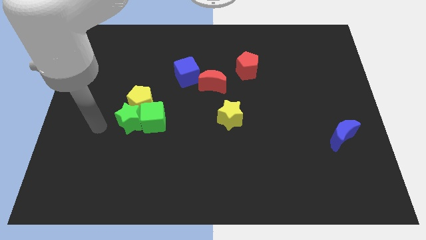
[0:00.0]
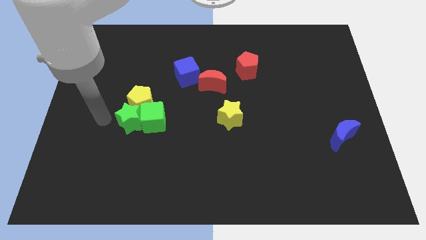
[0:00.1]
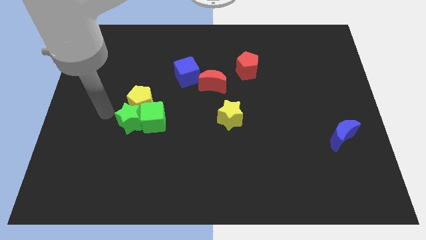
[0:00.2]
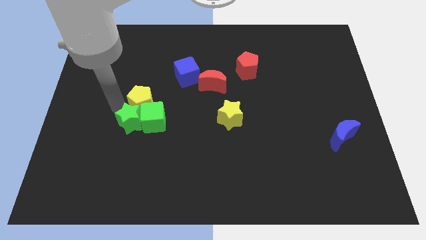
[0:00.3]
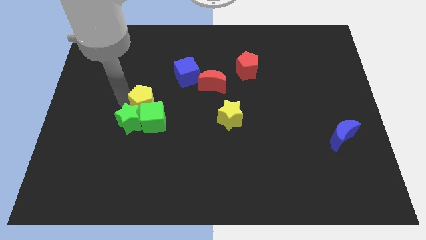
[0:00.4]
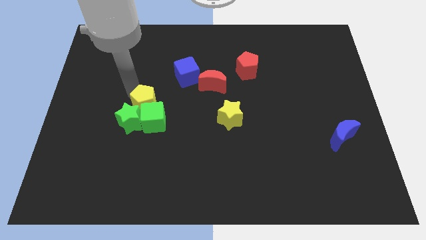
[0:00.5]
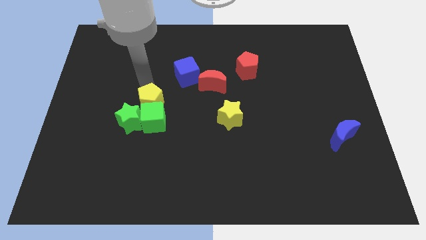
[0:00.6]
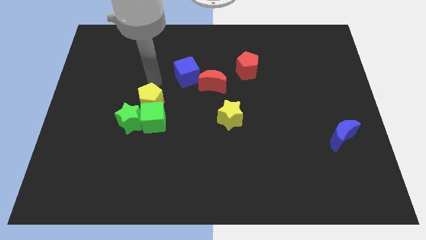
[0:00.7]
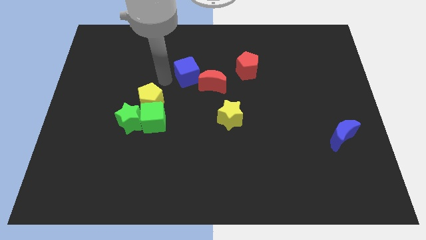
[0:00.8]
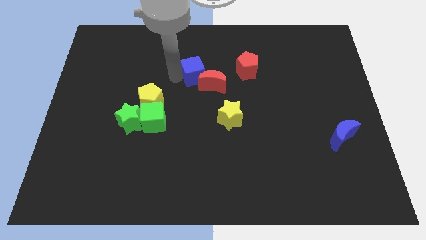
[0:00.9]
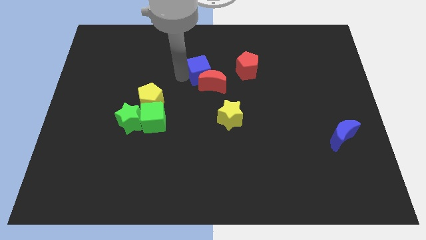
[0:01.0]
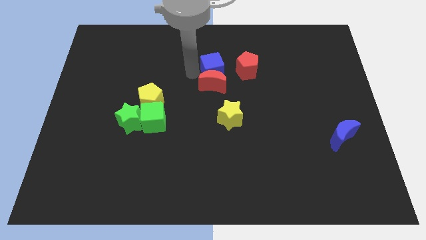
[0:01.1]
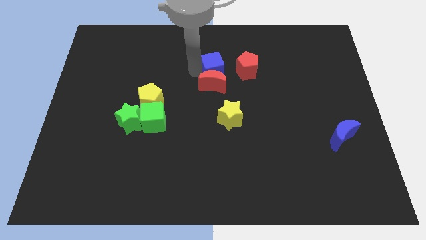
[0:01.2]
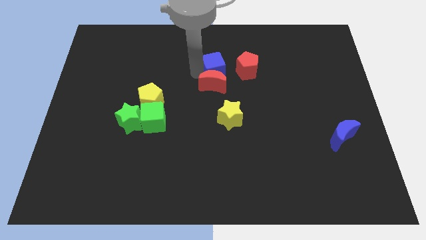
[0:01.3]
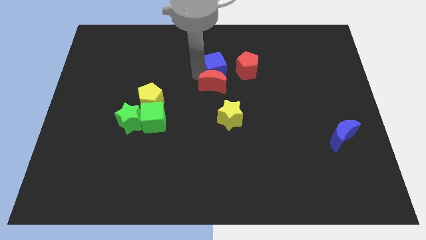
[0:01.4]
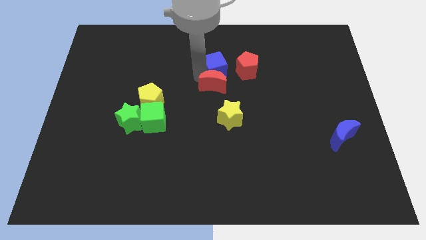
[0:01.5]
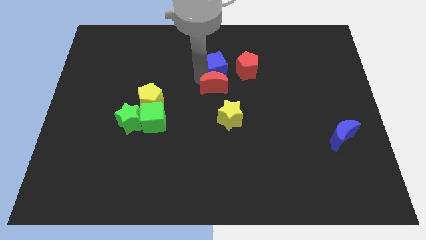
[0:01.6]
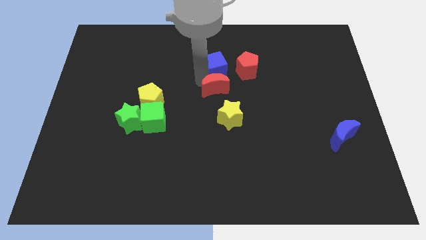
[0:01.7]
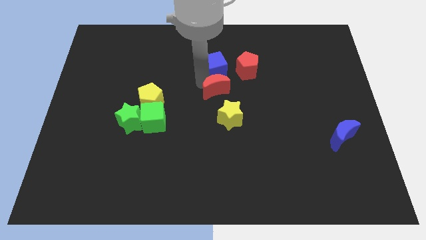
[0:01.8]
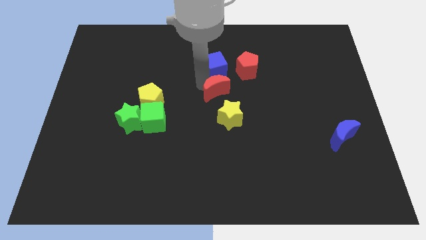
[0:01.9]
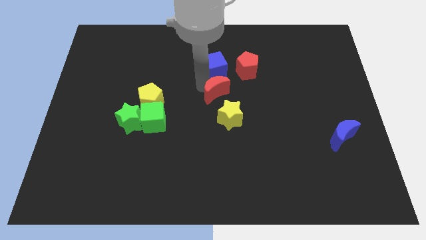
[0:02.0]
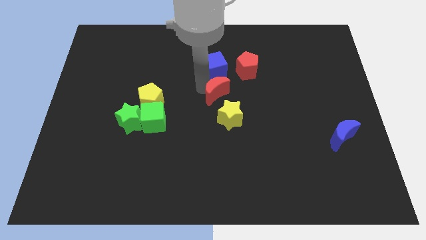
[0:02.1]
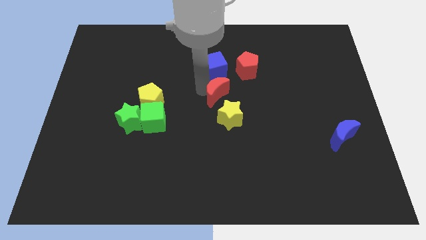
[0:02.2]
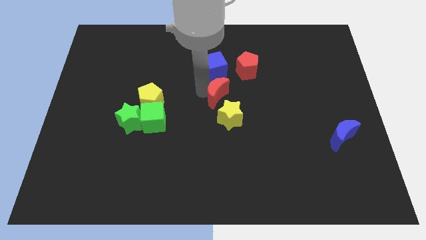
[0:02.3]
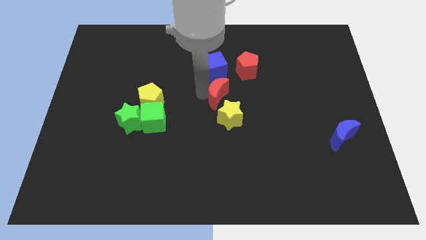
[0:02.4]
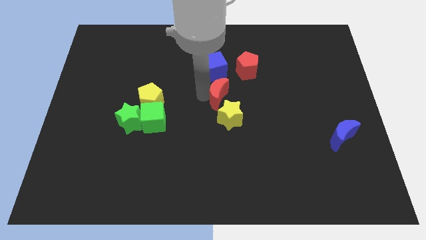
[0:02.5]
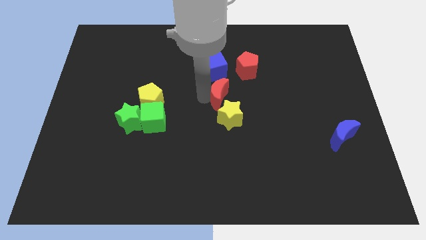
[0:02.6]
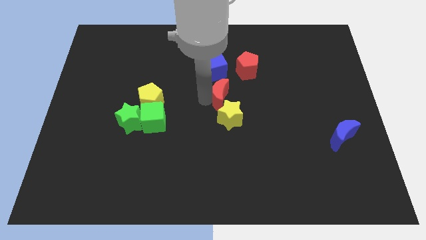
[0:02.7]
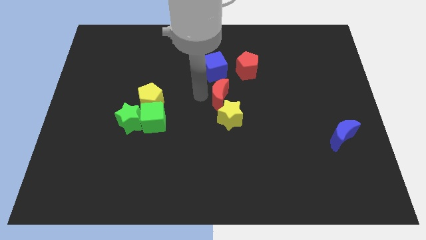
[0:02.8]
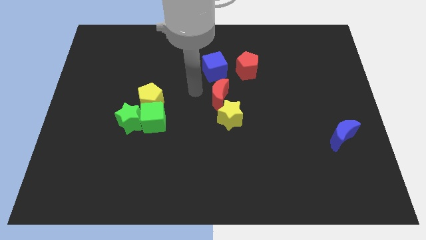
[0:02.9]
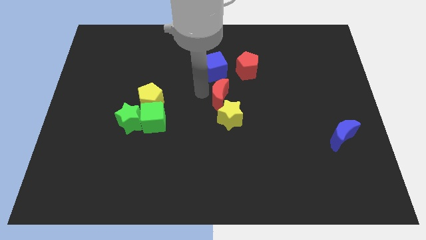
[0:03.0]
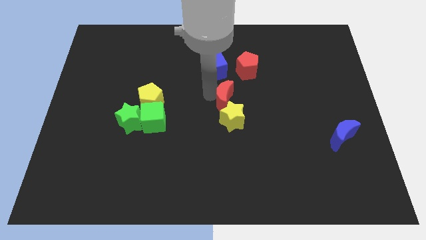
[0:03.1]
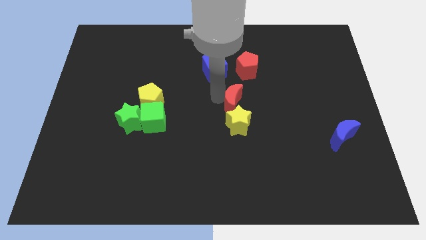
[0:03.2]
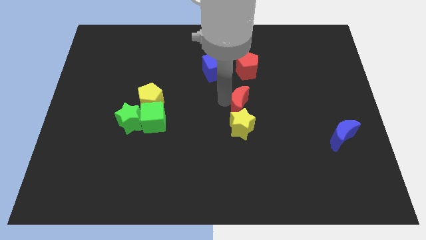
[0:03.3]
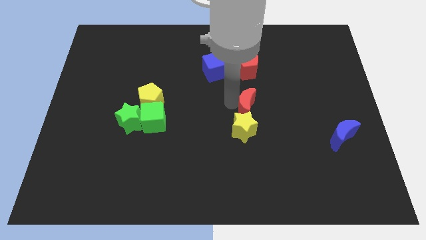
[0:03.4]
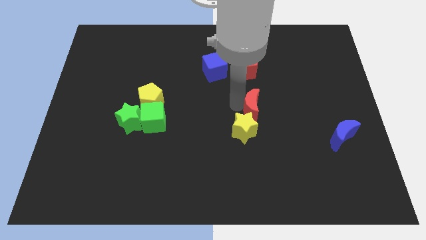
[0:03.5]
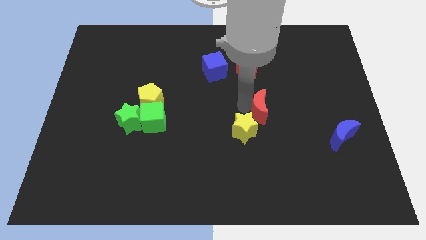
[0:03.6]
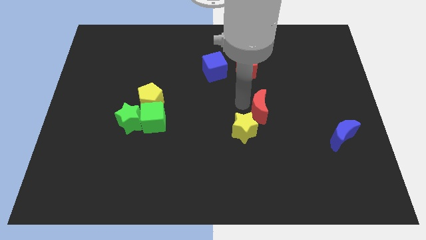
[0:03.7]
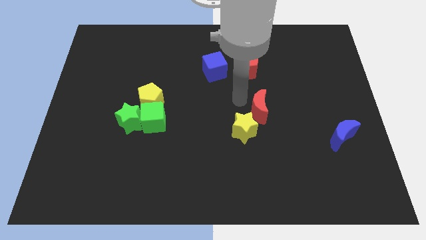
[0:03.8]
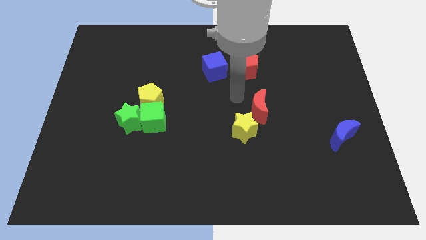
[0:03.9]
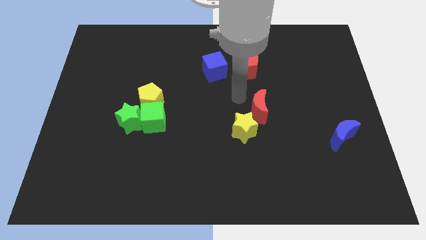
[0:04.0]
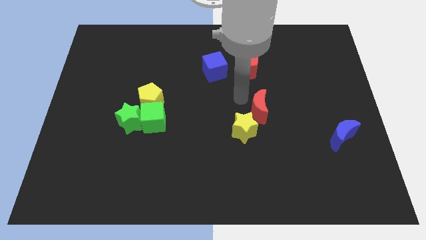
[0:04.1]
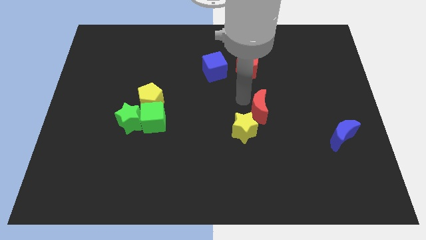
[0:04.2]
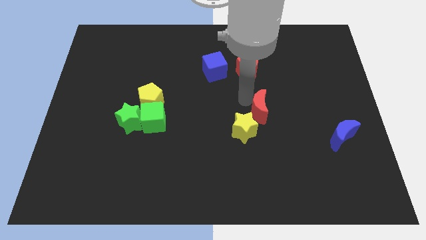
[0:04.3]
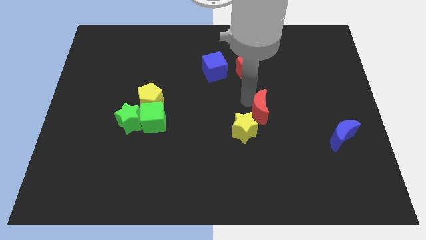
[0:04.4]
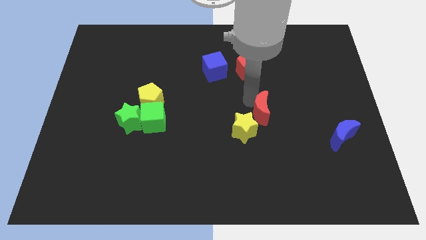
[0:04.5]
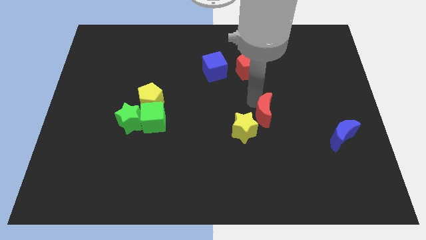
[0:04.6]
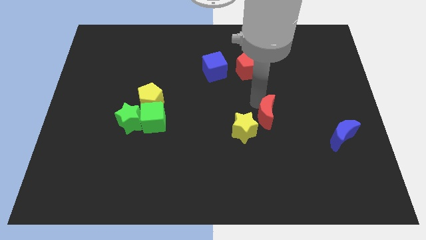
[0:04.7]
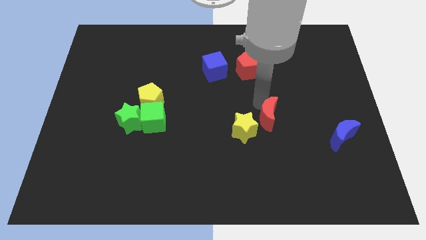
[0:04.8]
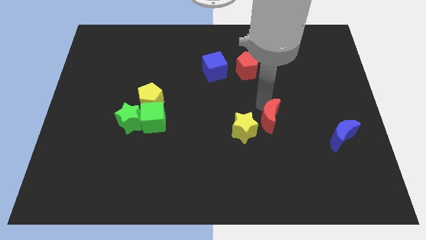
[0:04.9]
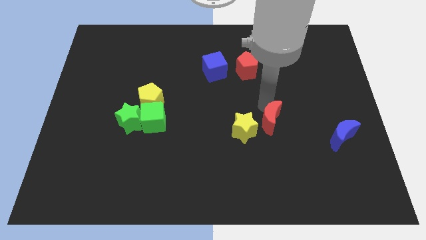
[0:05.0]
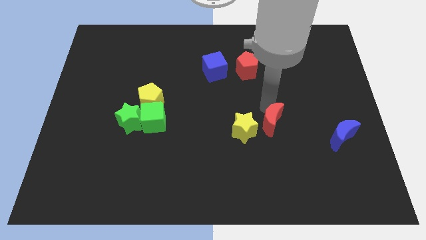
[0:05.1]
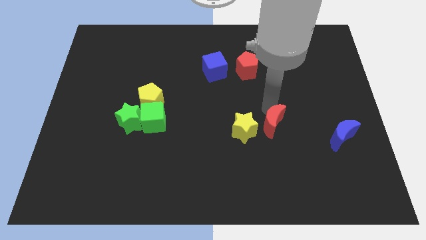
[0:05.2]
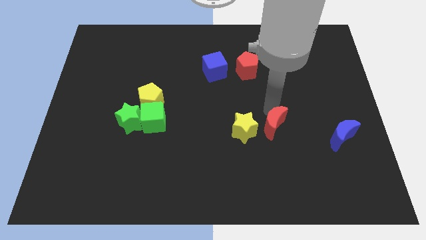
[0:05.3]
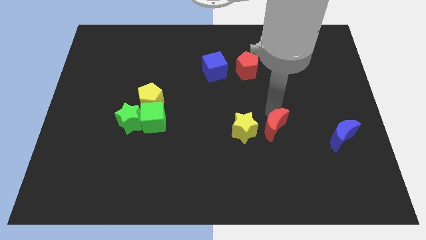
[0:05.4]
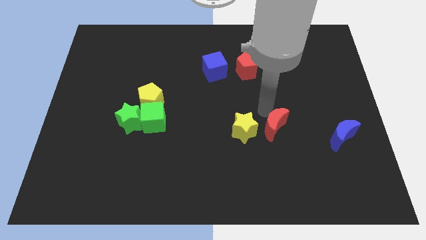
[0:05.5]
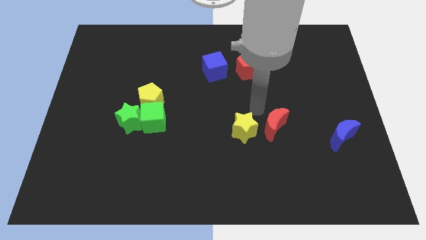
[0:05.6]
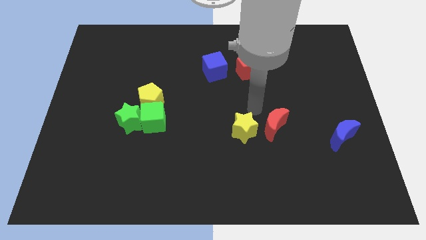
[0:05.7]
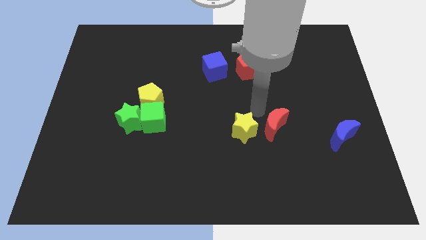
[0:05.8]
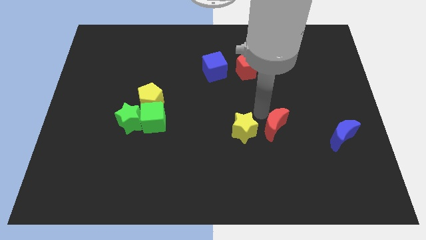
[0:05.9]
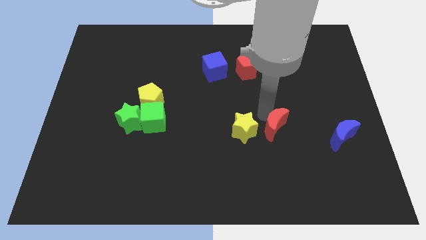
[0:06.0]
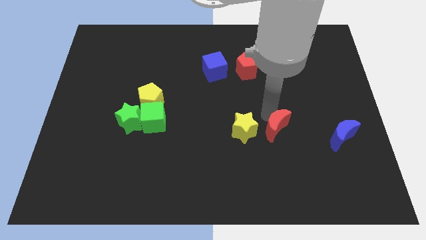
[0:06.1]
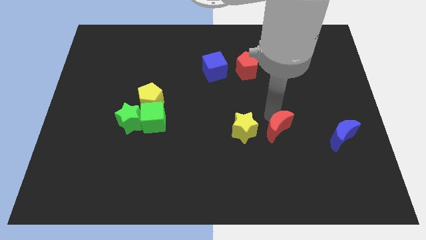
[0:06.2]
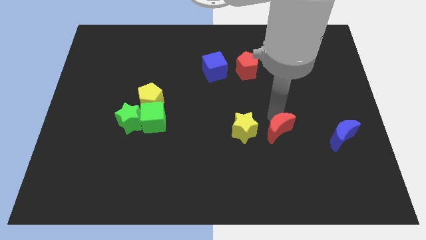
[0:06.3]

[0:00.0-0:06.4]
slide the red moon downwards and then to the right

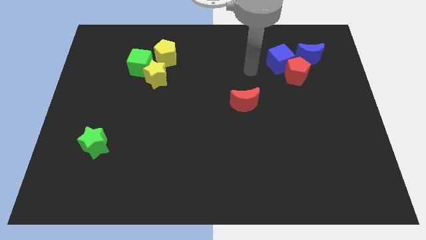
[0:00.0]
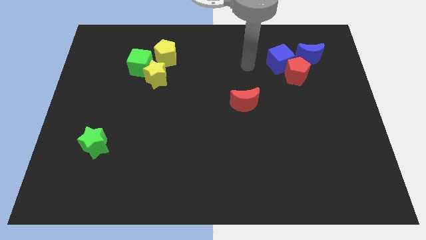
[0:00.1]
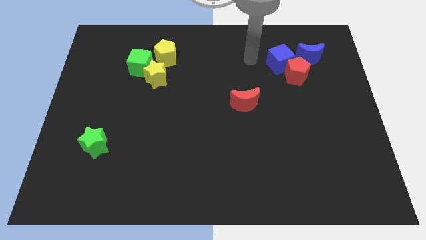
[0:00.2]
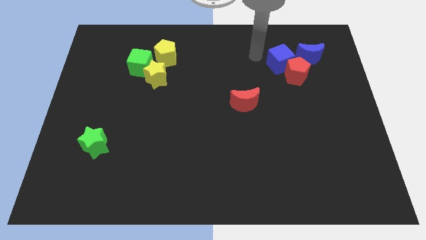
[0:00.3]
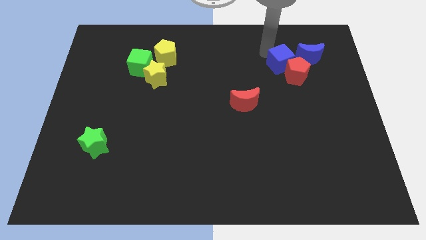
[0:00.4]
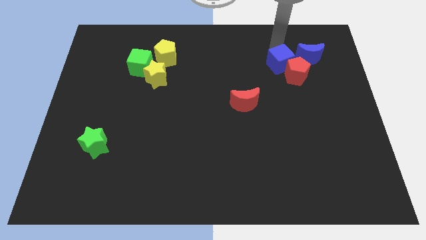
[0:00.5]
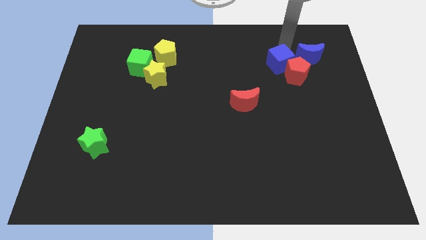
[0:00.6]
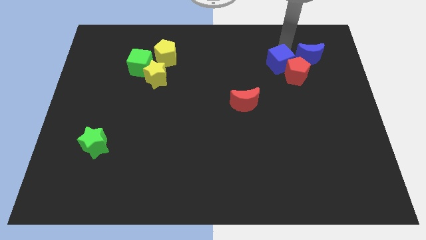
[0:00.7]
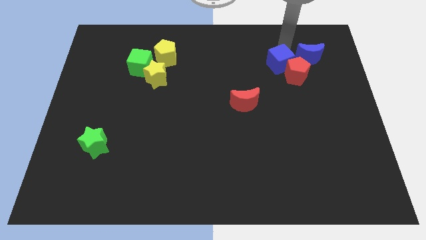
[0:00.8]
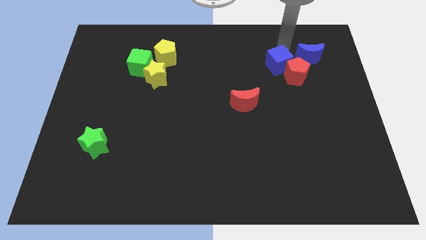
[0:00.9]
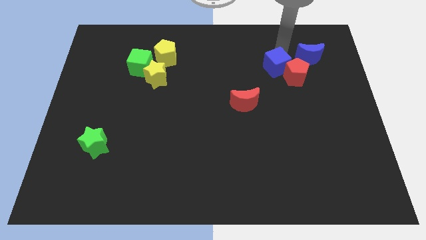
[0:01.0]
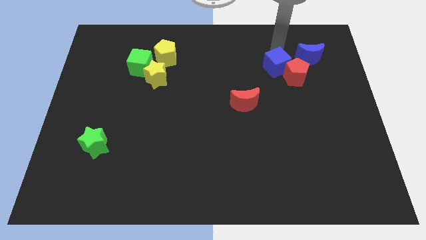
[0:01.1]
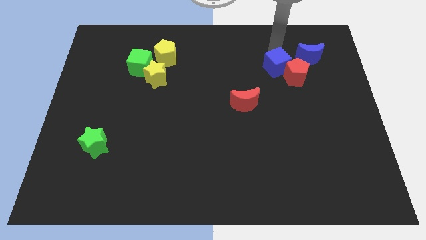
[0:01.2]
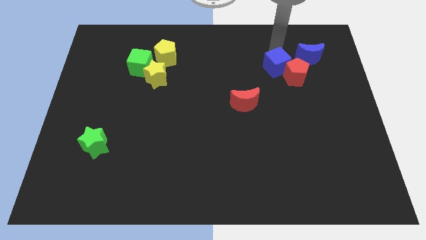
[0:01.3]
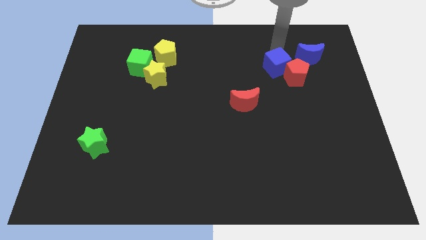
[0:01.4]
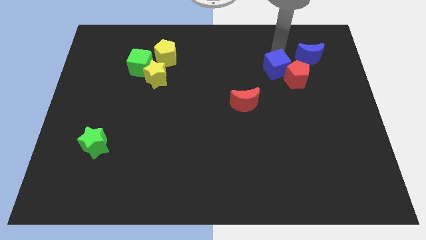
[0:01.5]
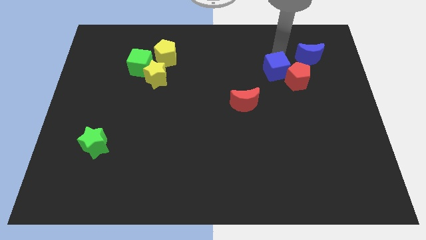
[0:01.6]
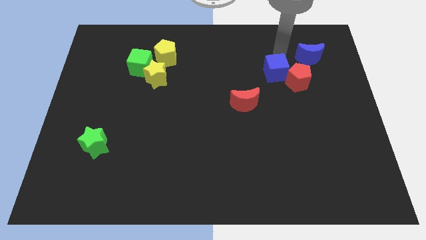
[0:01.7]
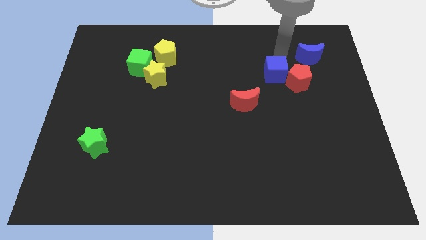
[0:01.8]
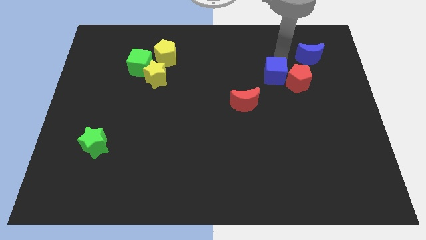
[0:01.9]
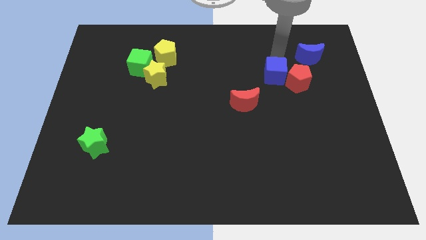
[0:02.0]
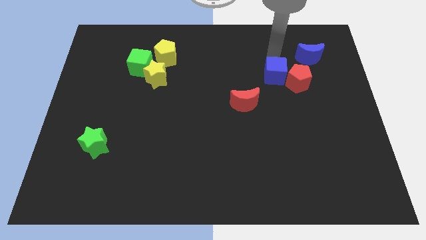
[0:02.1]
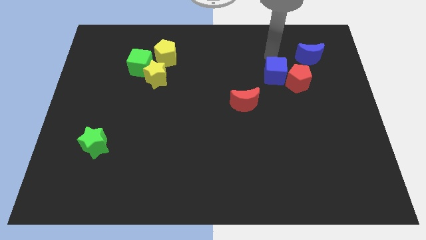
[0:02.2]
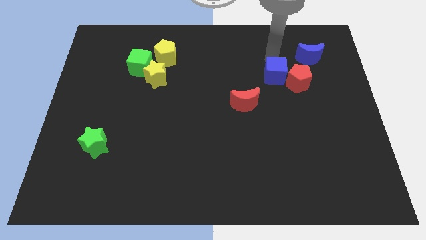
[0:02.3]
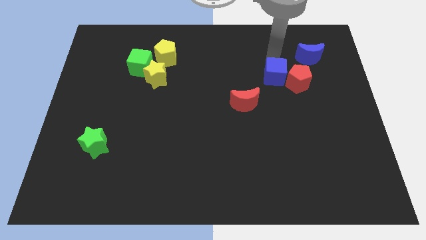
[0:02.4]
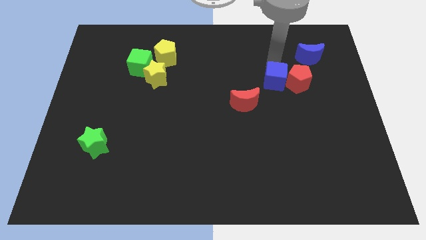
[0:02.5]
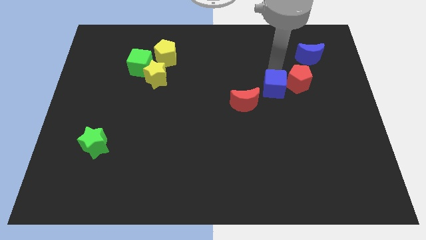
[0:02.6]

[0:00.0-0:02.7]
slightly slide the blue cube downwards
